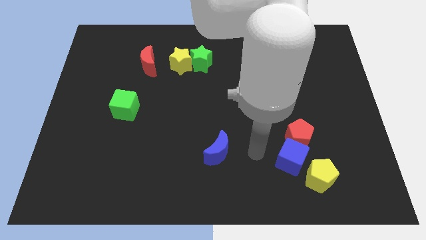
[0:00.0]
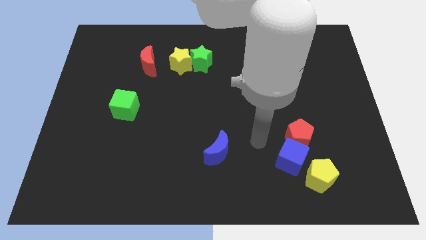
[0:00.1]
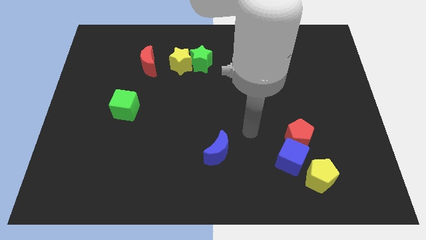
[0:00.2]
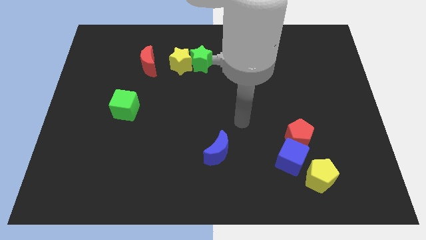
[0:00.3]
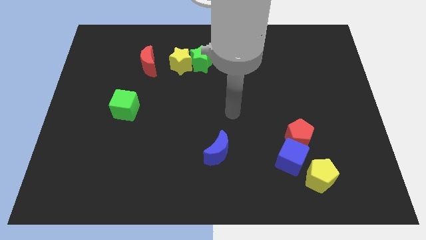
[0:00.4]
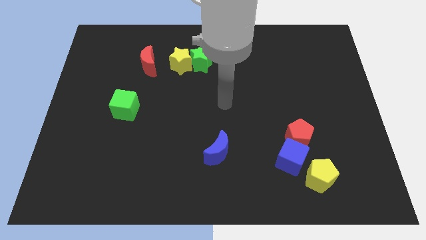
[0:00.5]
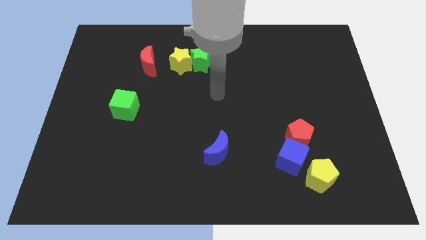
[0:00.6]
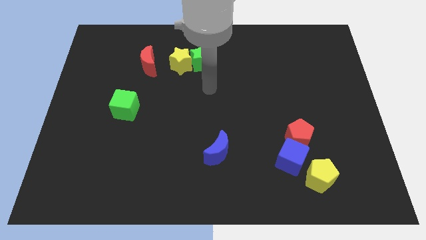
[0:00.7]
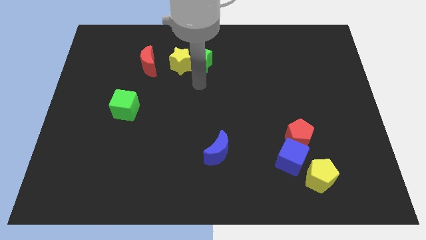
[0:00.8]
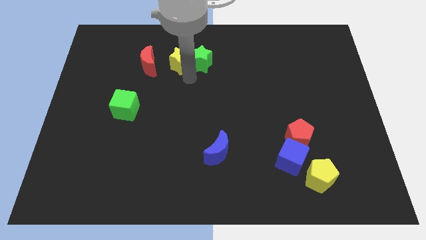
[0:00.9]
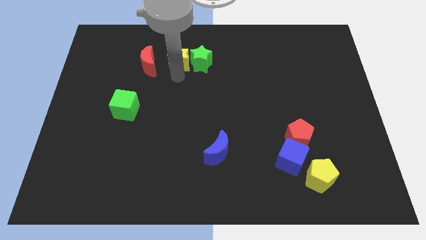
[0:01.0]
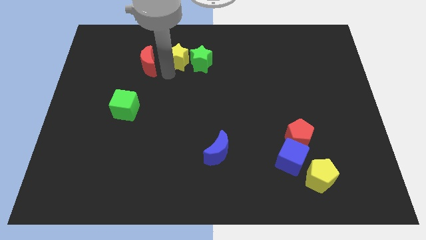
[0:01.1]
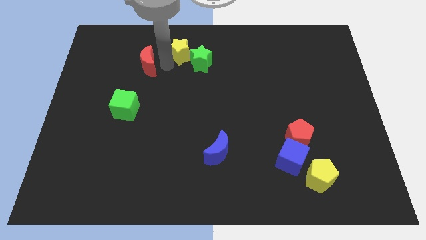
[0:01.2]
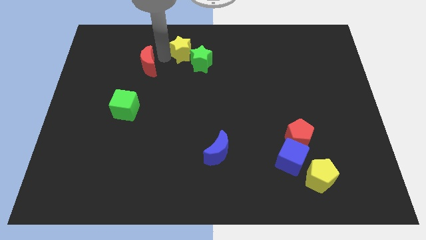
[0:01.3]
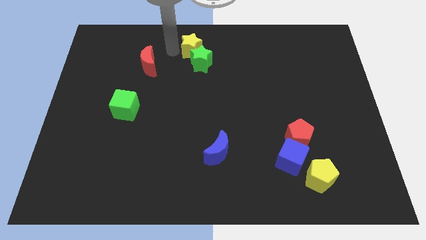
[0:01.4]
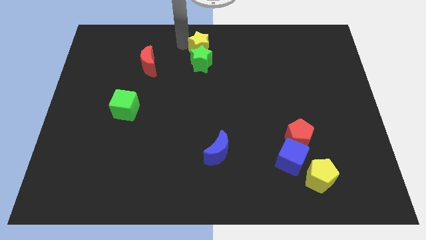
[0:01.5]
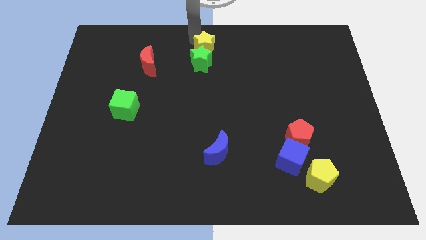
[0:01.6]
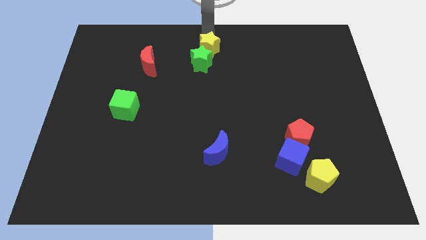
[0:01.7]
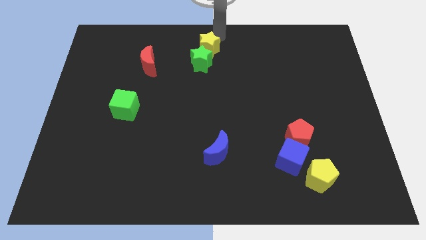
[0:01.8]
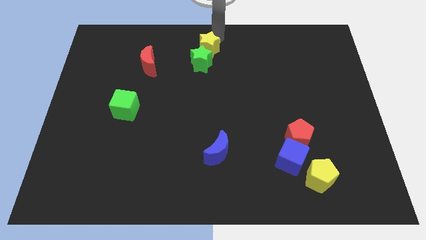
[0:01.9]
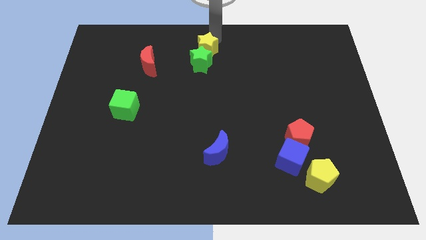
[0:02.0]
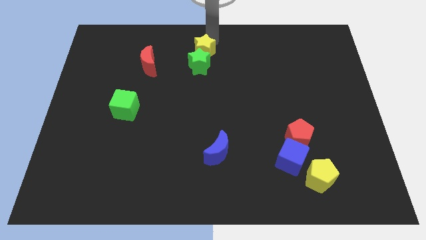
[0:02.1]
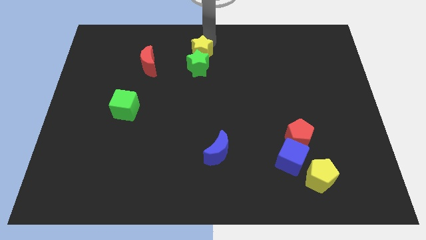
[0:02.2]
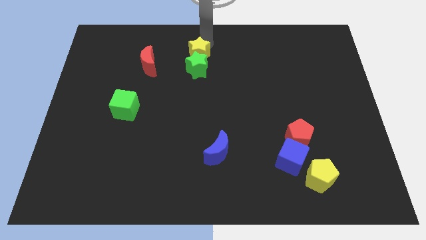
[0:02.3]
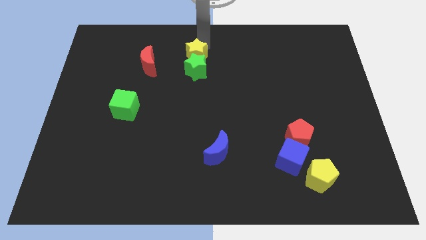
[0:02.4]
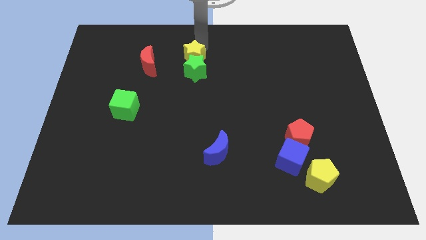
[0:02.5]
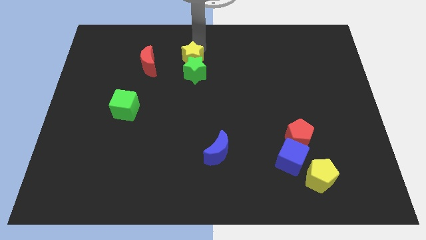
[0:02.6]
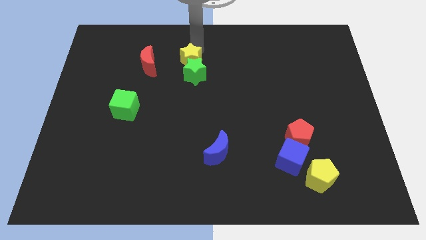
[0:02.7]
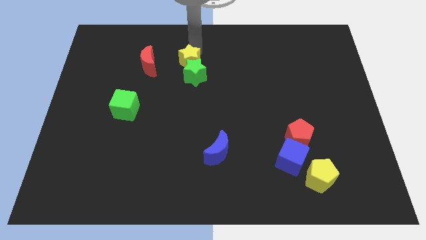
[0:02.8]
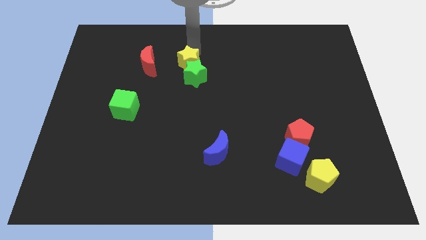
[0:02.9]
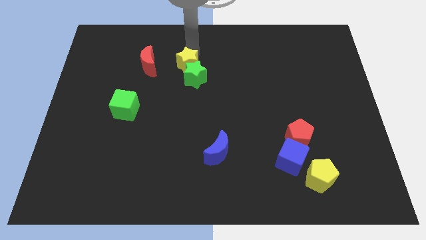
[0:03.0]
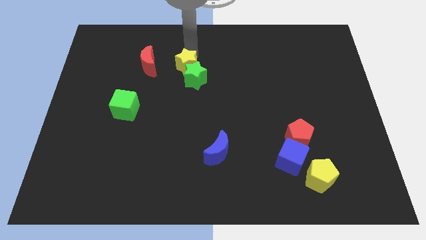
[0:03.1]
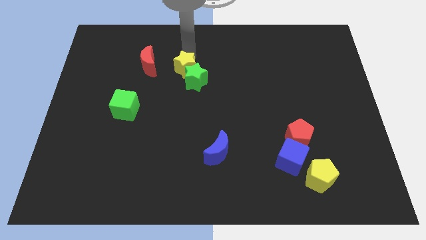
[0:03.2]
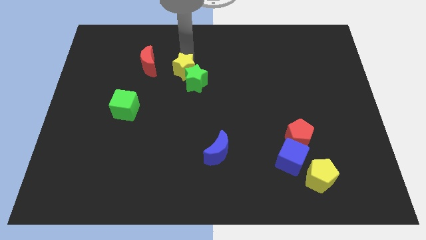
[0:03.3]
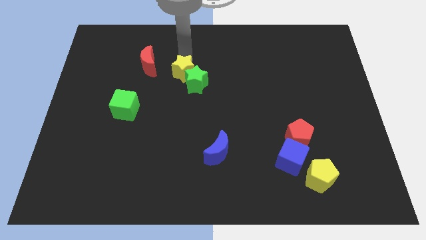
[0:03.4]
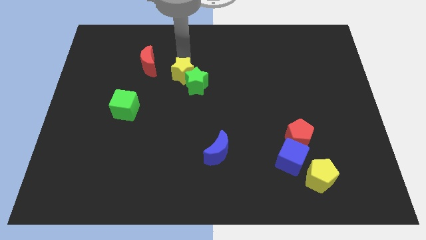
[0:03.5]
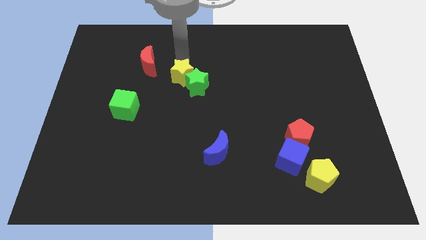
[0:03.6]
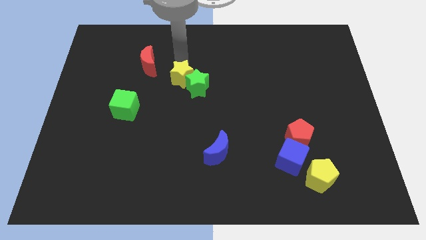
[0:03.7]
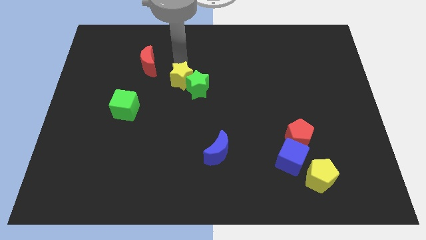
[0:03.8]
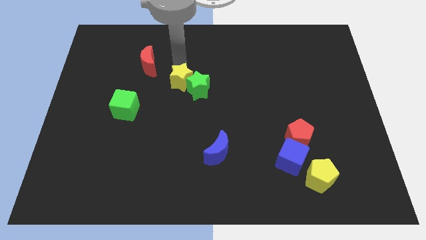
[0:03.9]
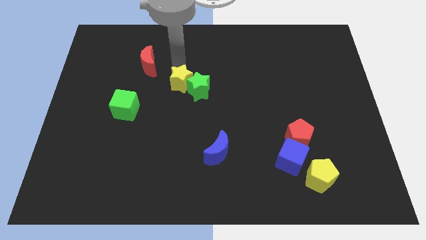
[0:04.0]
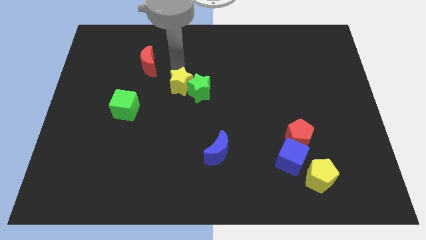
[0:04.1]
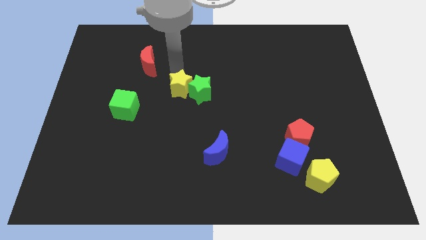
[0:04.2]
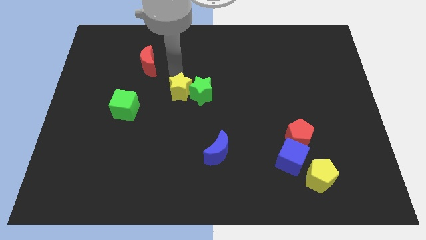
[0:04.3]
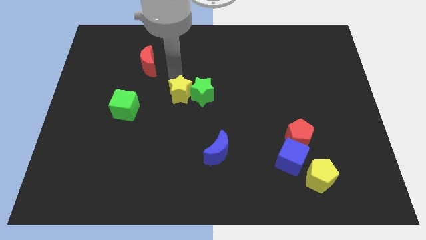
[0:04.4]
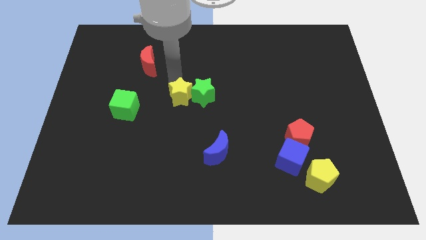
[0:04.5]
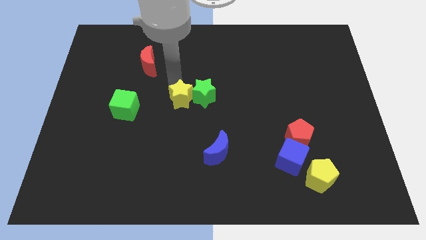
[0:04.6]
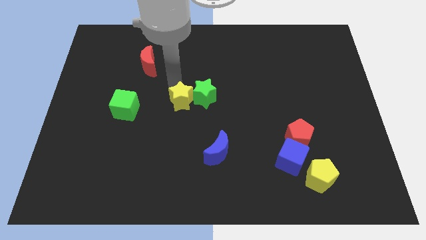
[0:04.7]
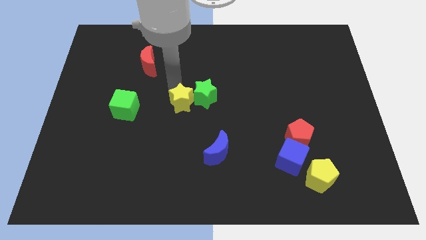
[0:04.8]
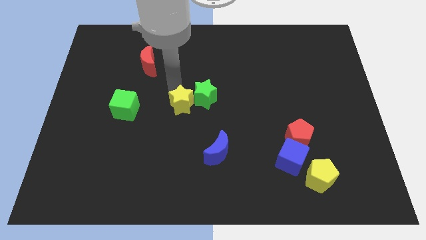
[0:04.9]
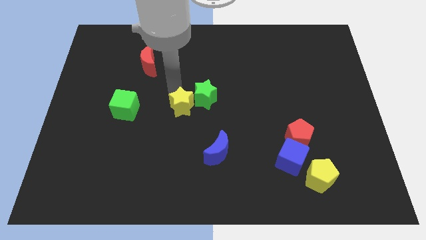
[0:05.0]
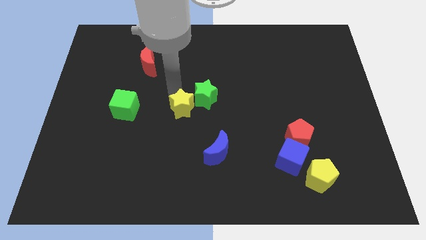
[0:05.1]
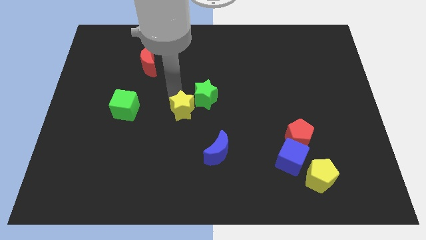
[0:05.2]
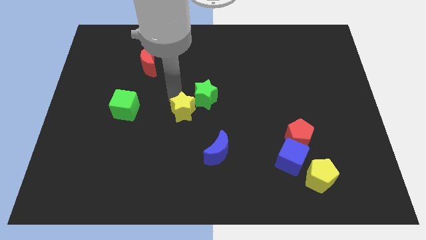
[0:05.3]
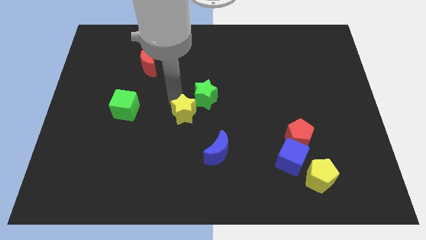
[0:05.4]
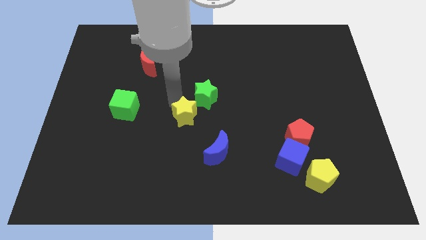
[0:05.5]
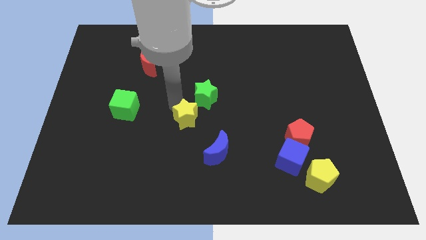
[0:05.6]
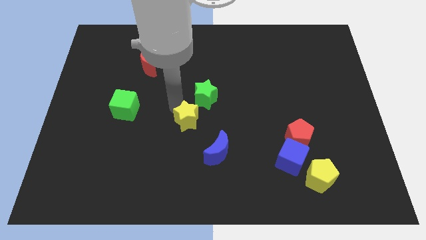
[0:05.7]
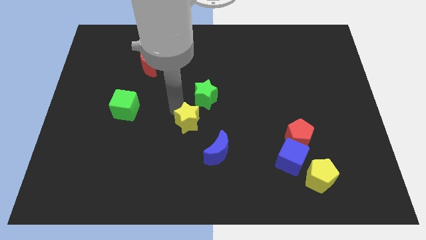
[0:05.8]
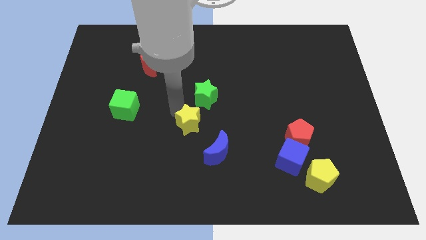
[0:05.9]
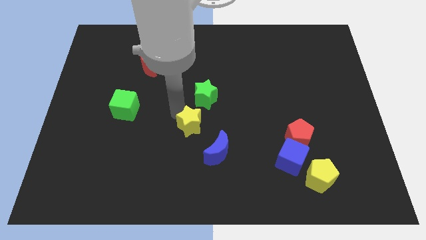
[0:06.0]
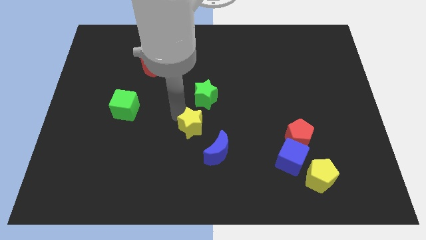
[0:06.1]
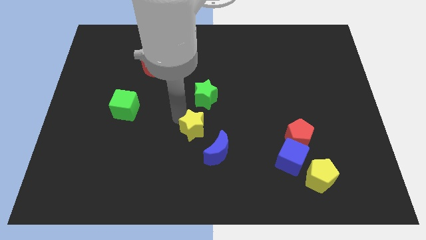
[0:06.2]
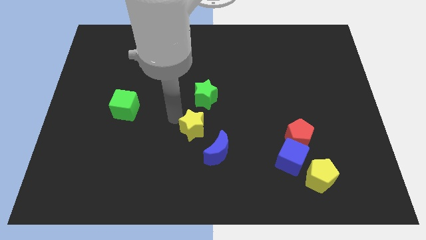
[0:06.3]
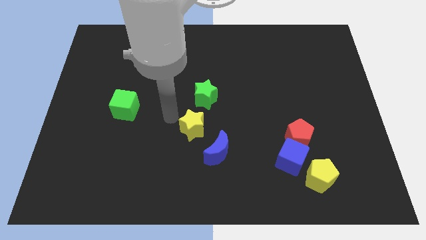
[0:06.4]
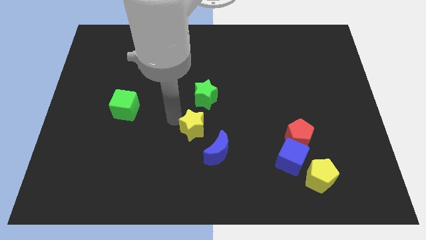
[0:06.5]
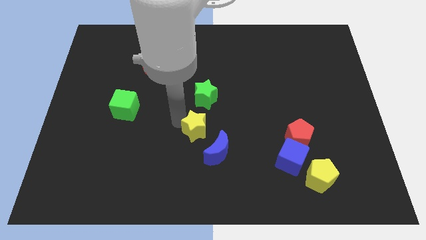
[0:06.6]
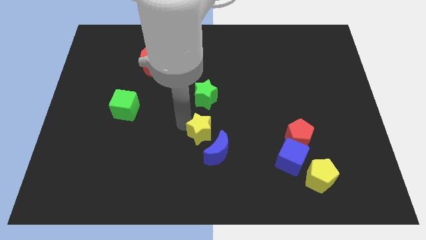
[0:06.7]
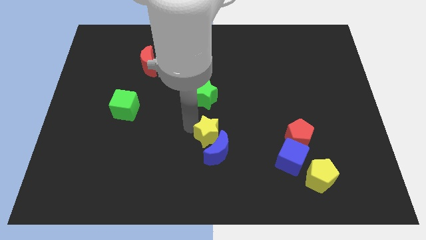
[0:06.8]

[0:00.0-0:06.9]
put the yellow star next to the blue moon
